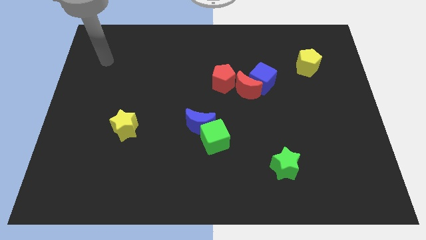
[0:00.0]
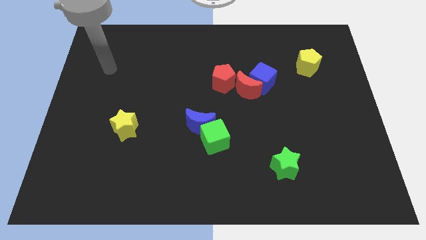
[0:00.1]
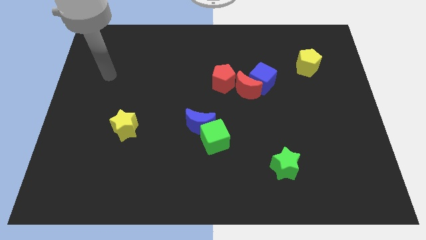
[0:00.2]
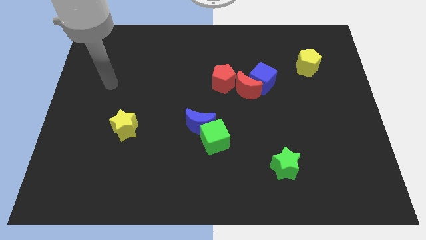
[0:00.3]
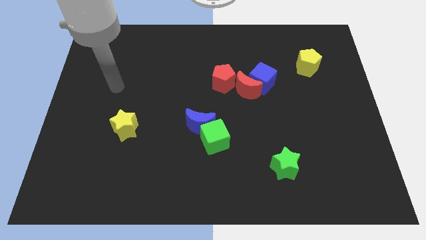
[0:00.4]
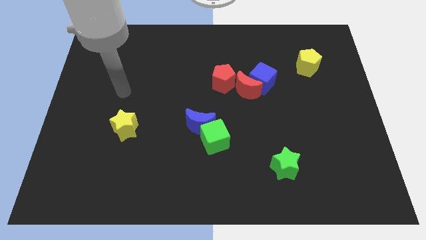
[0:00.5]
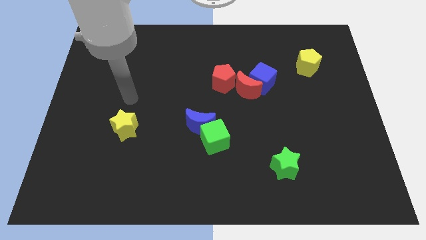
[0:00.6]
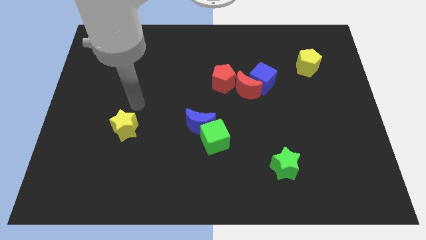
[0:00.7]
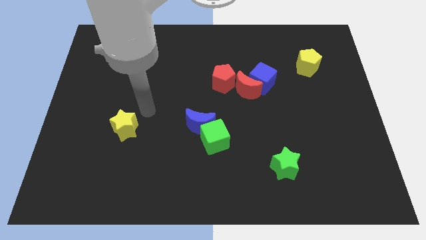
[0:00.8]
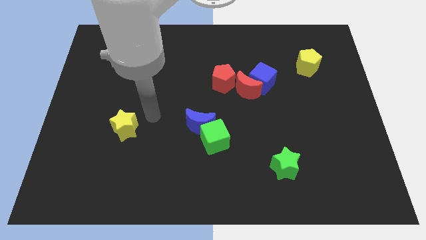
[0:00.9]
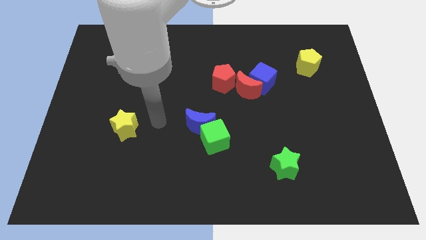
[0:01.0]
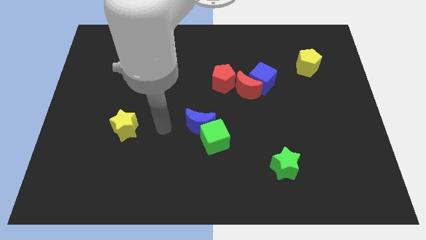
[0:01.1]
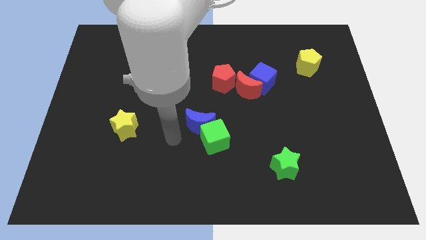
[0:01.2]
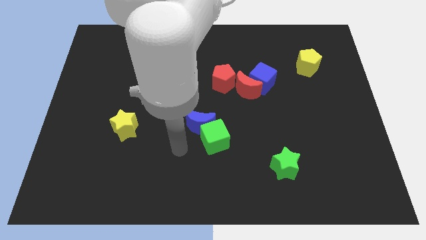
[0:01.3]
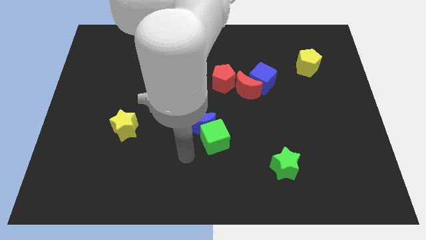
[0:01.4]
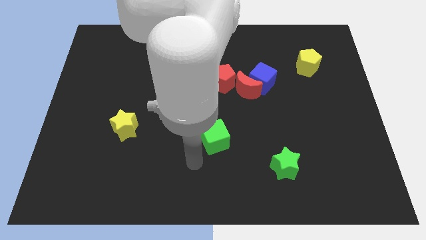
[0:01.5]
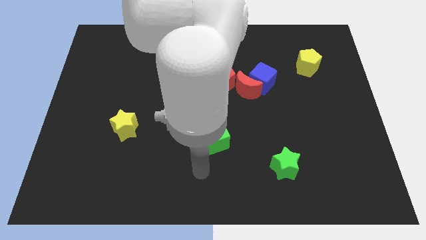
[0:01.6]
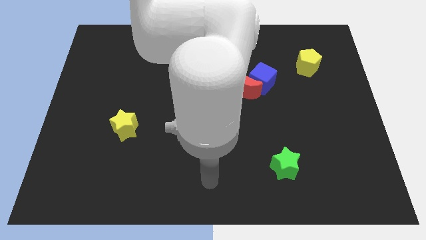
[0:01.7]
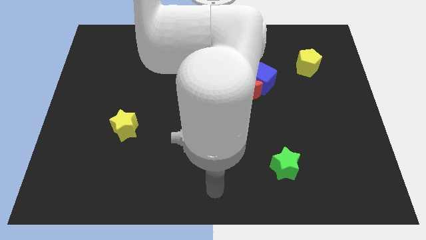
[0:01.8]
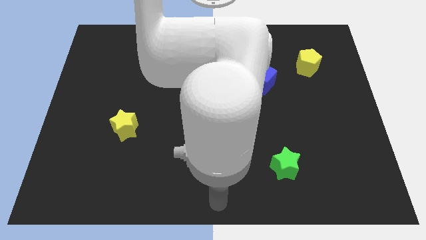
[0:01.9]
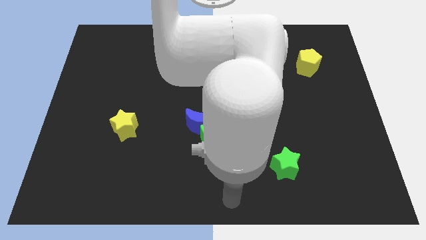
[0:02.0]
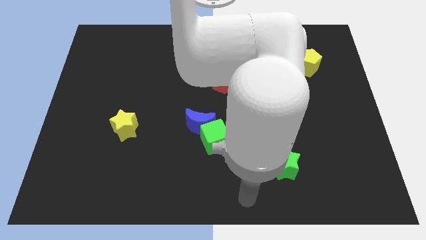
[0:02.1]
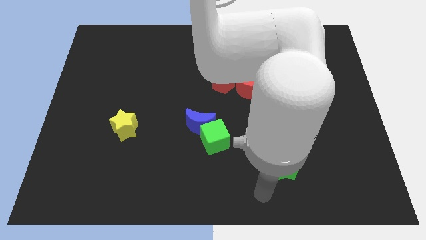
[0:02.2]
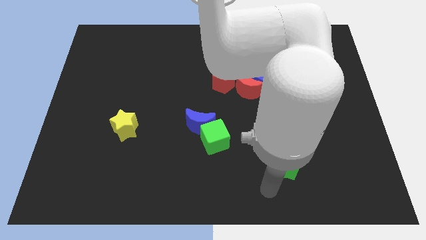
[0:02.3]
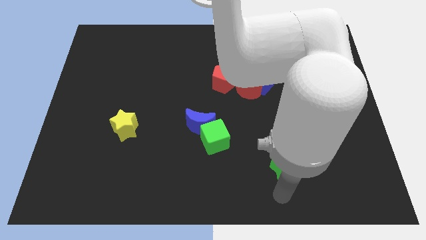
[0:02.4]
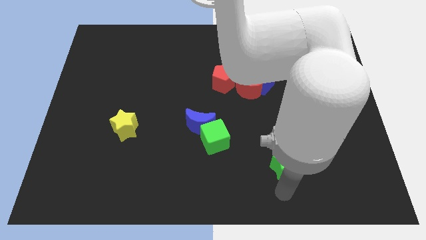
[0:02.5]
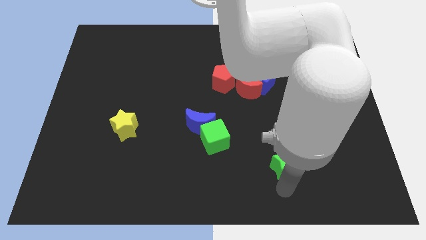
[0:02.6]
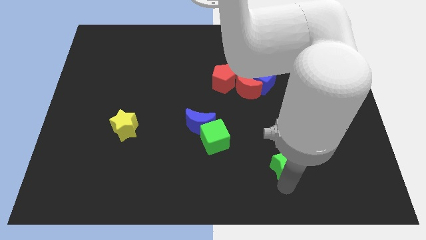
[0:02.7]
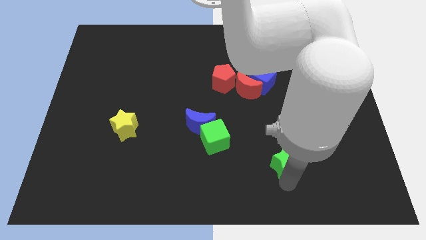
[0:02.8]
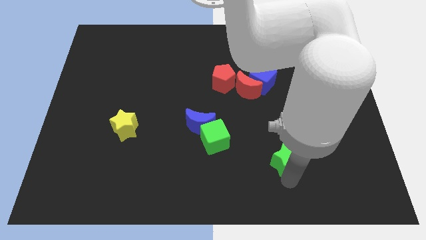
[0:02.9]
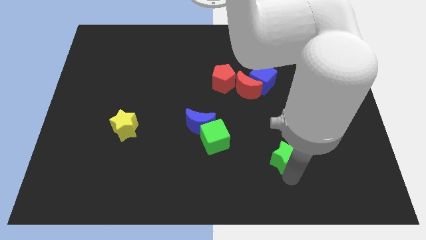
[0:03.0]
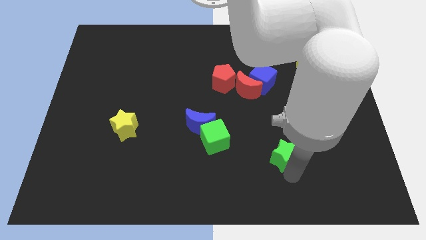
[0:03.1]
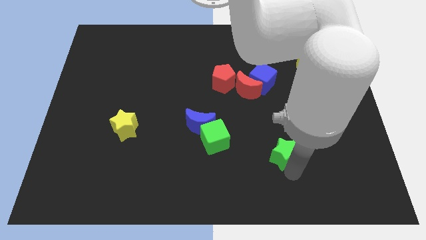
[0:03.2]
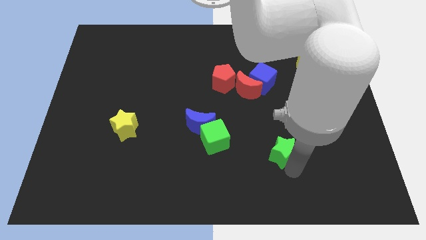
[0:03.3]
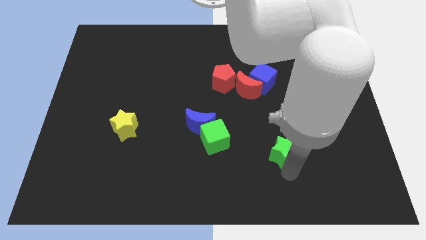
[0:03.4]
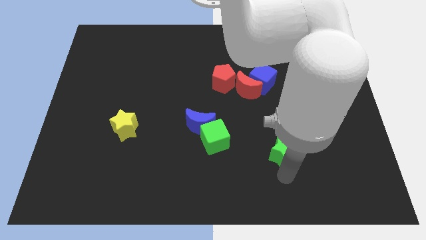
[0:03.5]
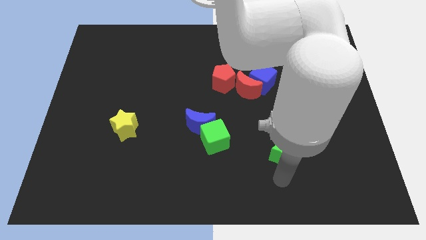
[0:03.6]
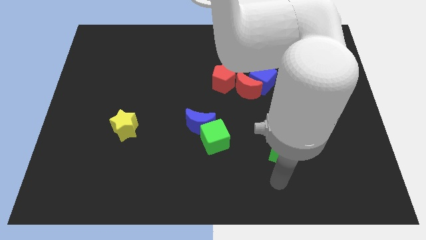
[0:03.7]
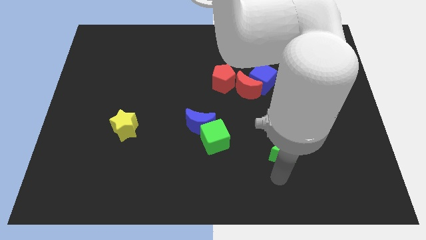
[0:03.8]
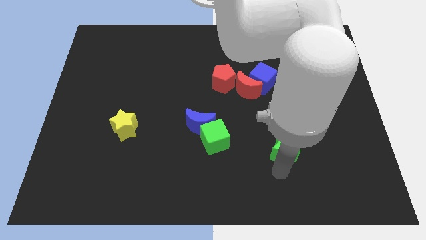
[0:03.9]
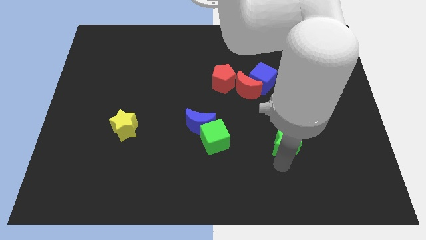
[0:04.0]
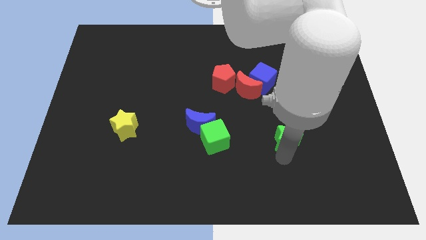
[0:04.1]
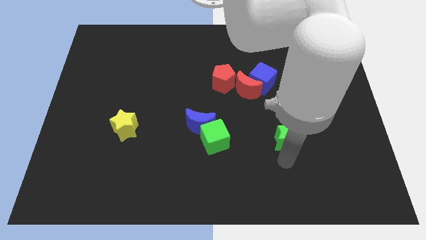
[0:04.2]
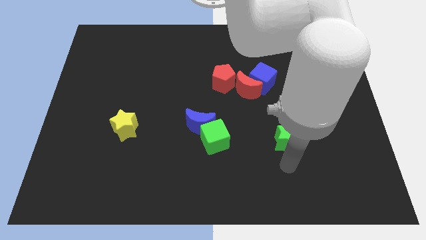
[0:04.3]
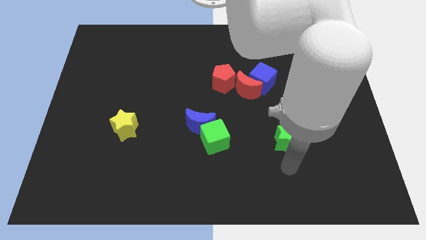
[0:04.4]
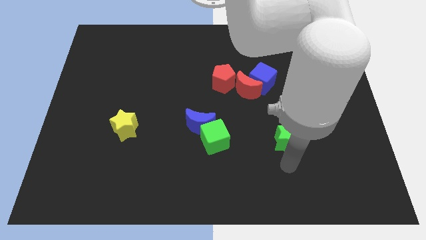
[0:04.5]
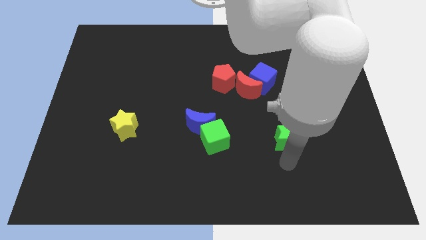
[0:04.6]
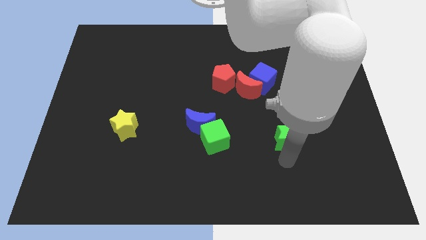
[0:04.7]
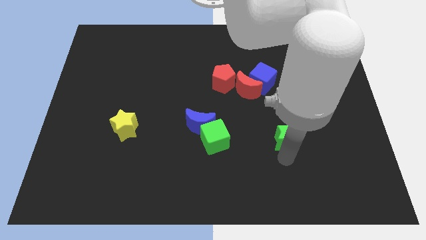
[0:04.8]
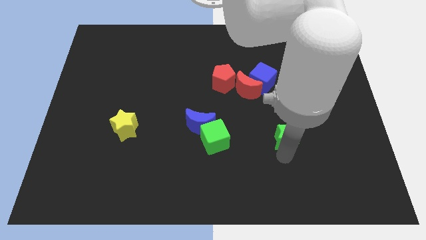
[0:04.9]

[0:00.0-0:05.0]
slightly move the green star upwards

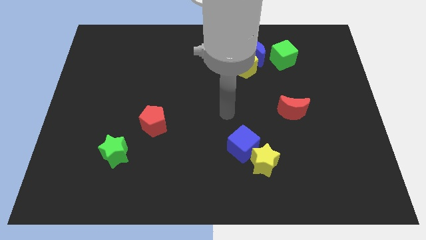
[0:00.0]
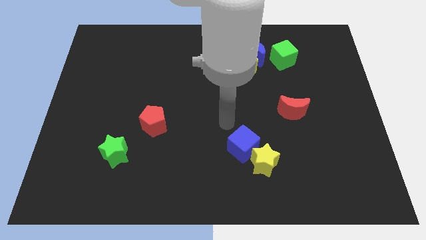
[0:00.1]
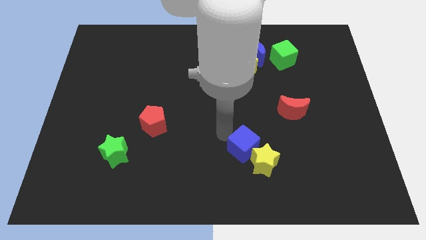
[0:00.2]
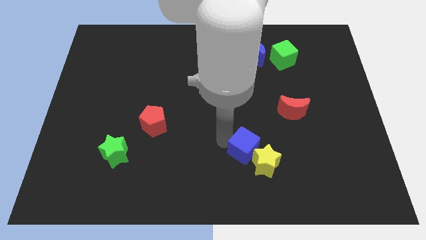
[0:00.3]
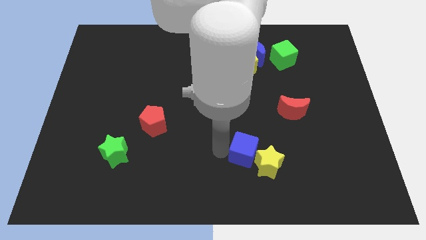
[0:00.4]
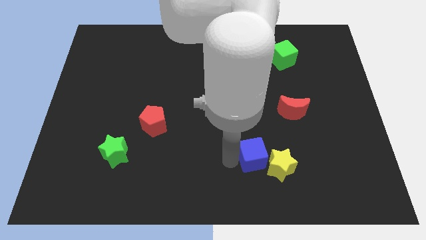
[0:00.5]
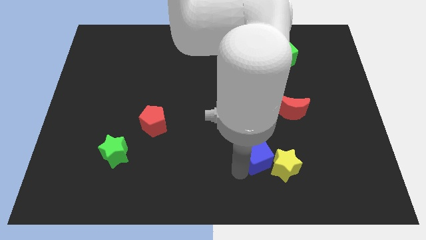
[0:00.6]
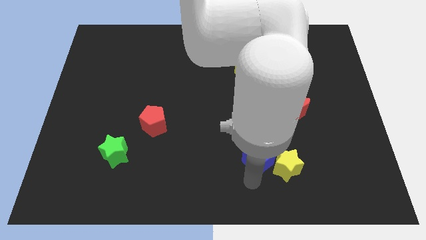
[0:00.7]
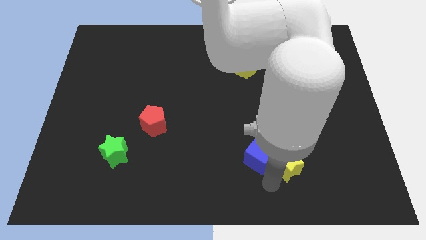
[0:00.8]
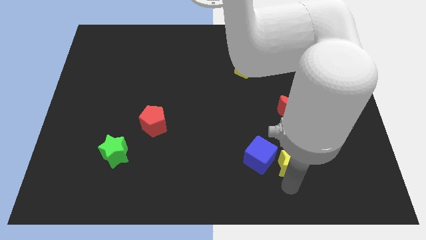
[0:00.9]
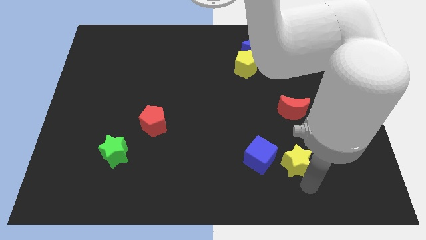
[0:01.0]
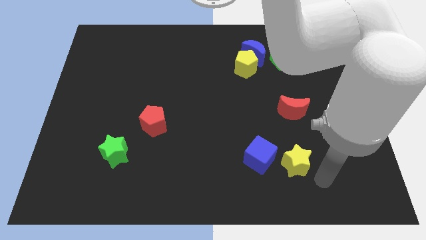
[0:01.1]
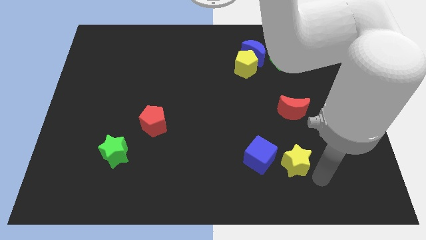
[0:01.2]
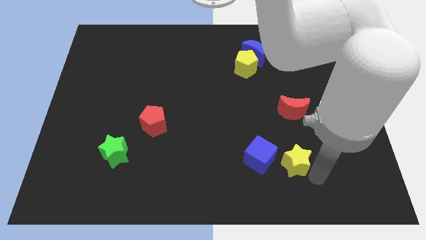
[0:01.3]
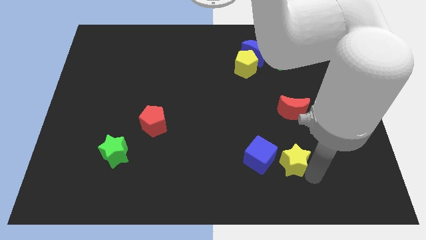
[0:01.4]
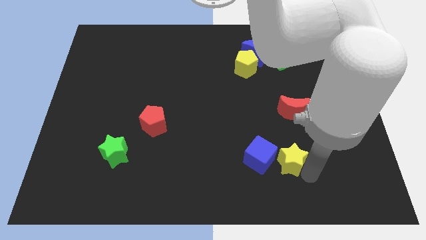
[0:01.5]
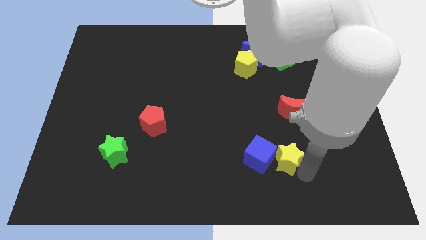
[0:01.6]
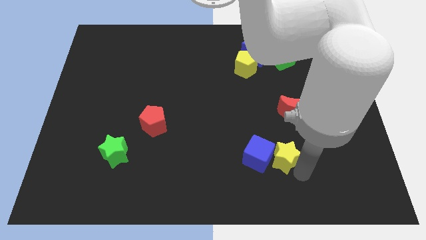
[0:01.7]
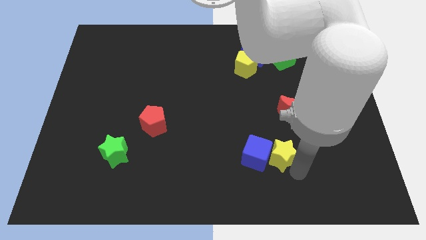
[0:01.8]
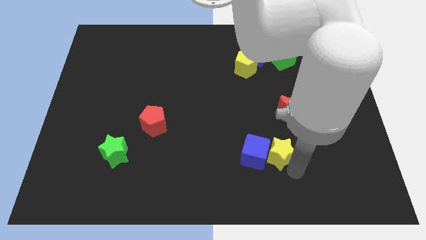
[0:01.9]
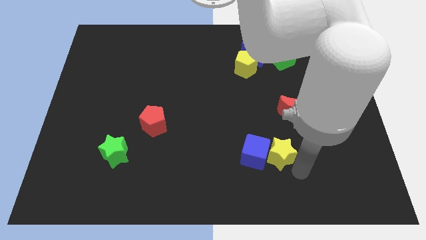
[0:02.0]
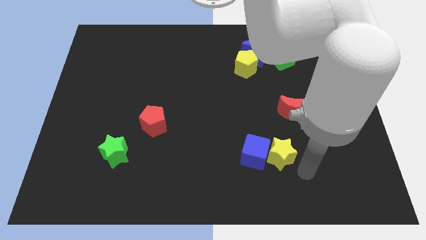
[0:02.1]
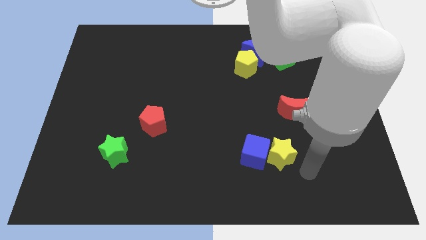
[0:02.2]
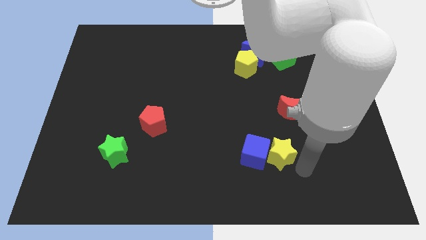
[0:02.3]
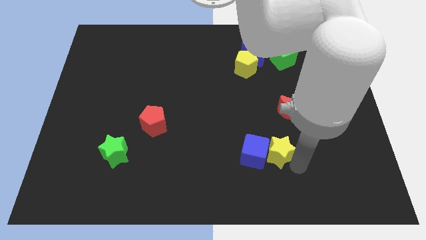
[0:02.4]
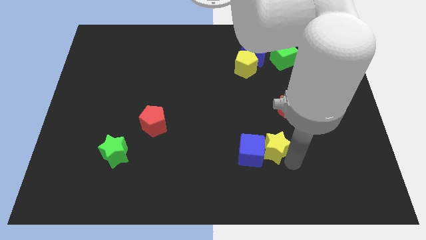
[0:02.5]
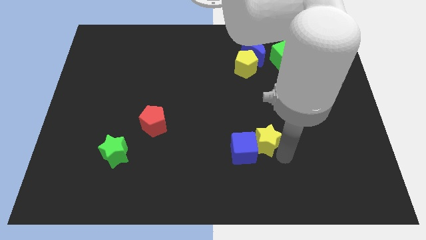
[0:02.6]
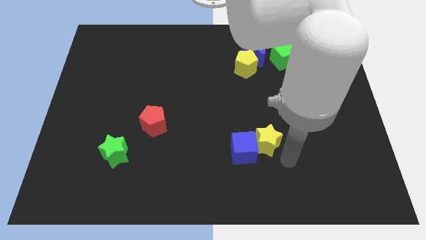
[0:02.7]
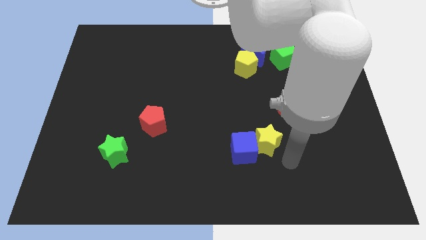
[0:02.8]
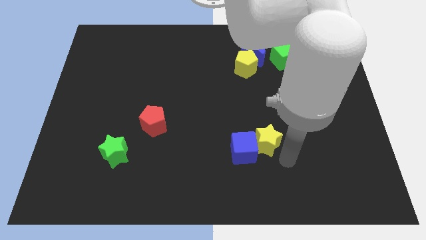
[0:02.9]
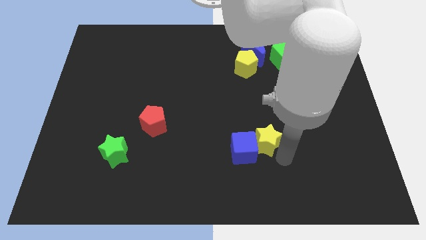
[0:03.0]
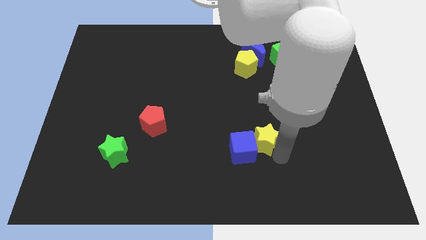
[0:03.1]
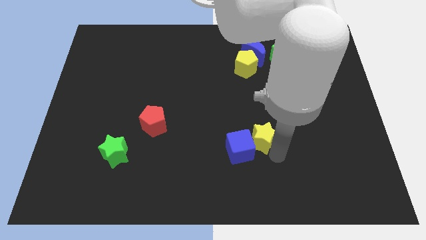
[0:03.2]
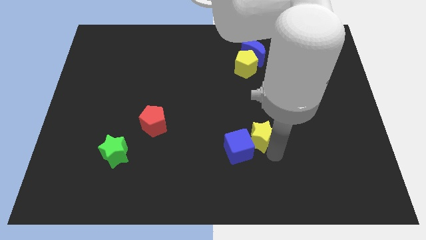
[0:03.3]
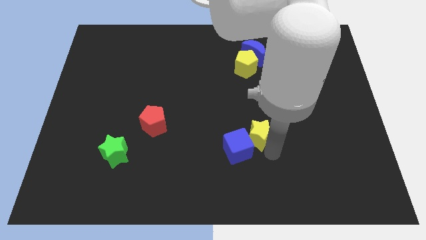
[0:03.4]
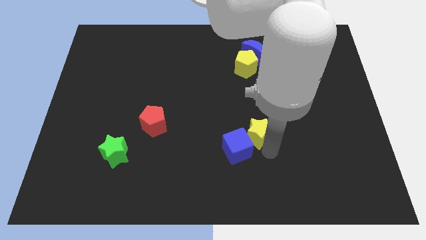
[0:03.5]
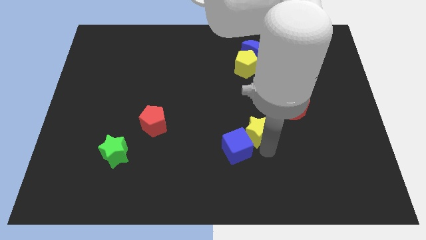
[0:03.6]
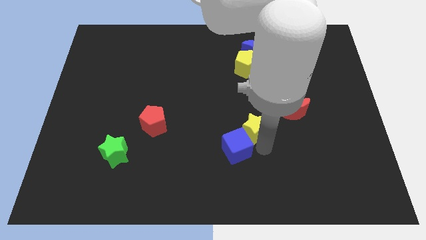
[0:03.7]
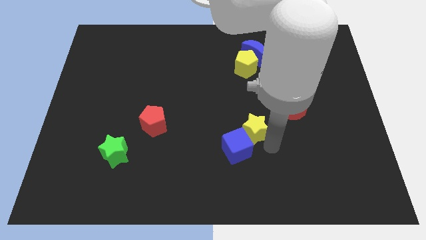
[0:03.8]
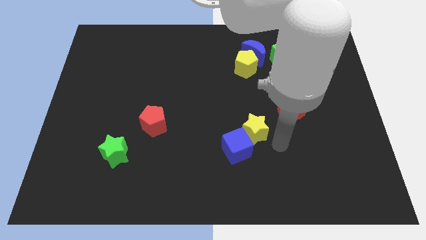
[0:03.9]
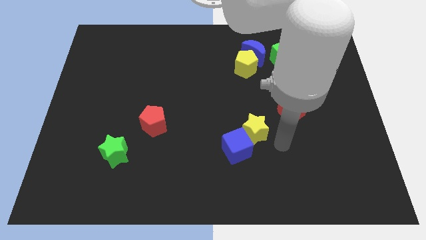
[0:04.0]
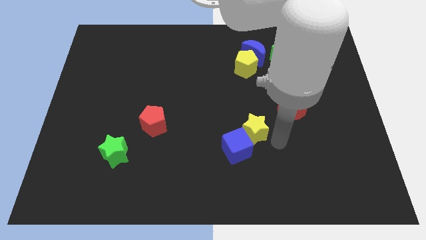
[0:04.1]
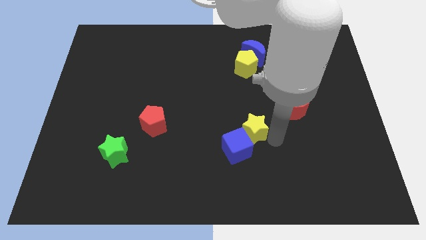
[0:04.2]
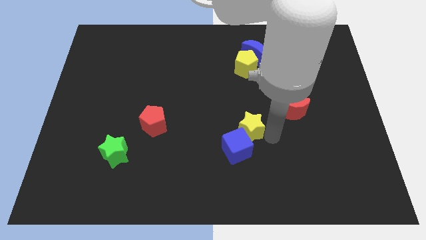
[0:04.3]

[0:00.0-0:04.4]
push the yellow star somewhat diagonally upwards and to the left
